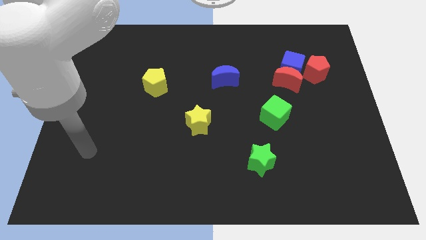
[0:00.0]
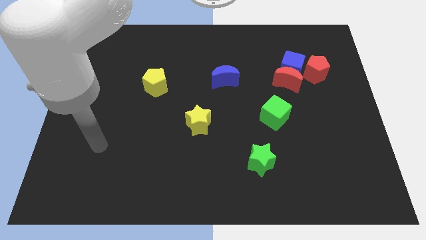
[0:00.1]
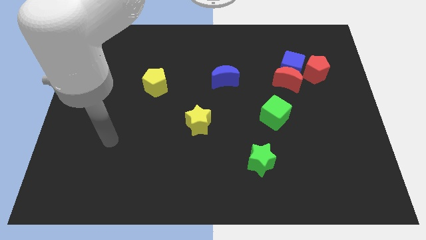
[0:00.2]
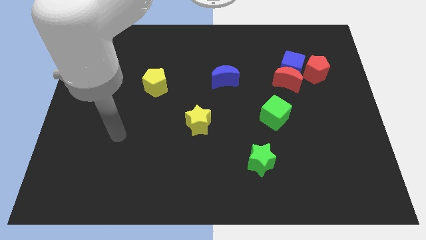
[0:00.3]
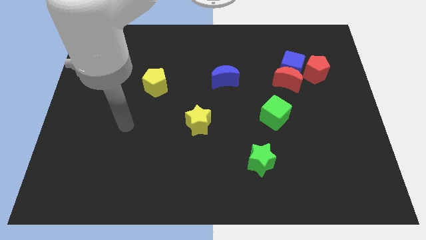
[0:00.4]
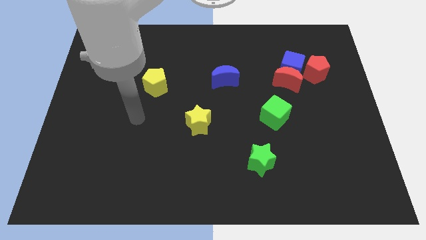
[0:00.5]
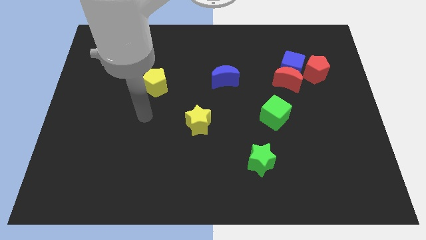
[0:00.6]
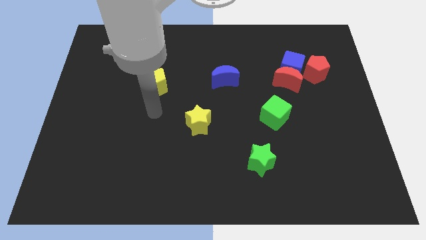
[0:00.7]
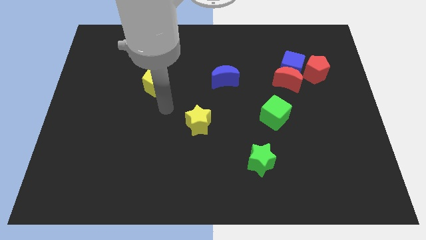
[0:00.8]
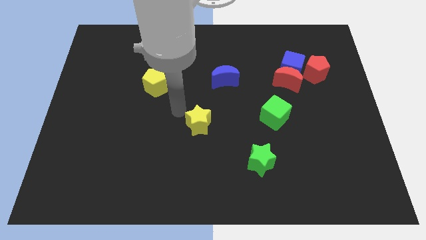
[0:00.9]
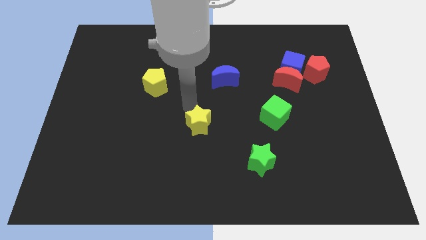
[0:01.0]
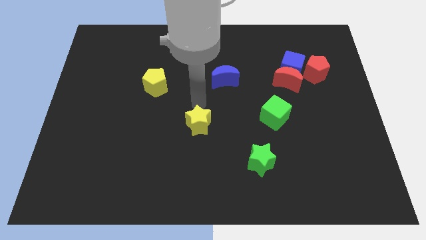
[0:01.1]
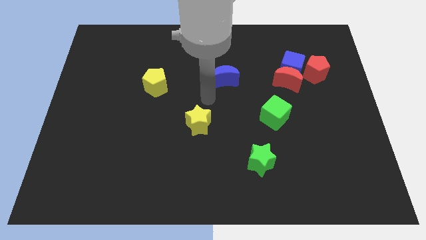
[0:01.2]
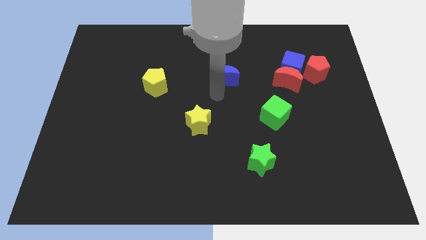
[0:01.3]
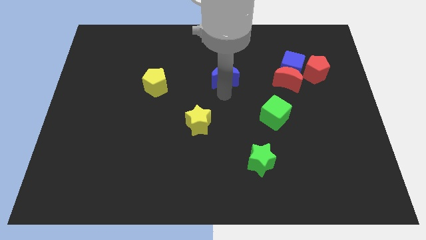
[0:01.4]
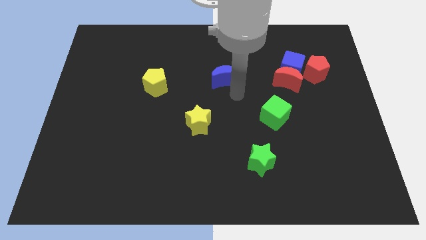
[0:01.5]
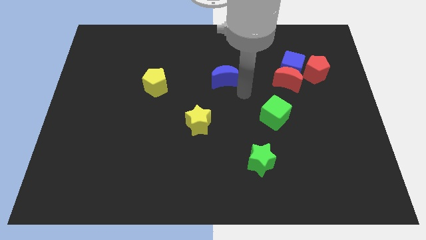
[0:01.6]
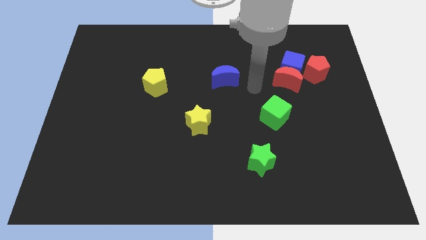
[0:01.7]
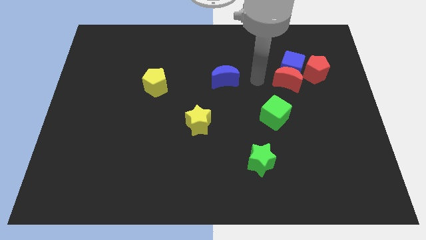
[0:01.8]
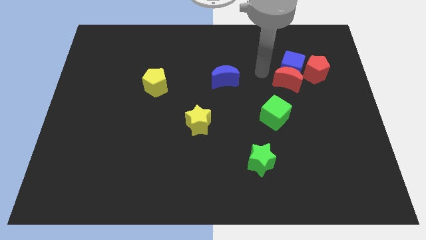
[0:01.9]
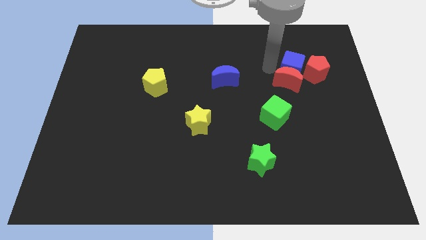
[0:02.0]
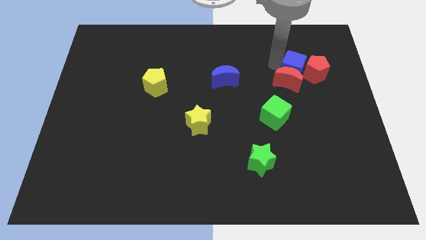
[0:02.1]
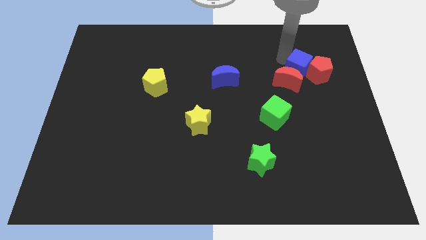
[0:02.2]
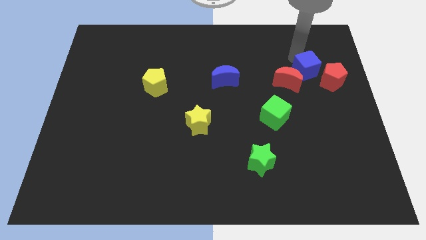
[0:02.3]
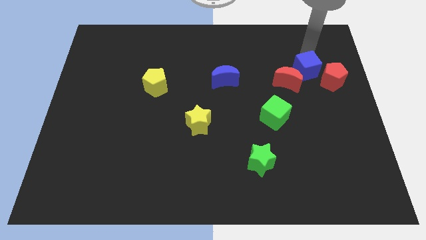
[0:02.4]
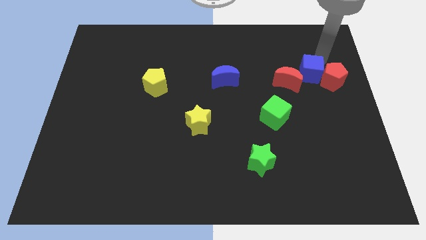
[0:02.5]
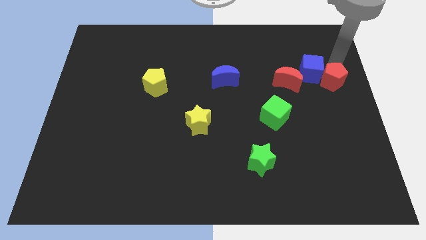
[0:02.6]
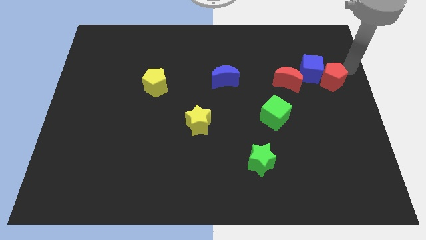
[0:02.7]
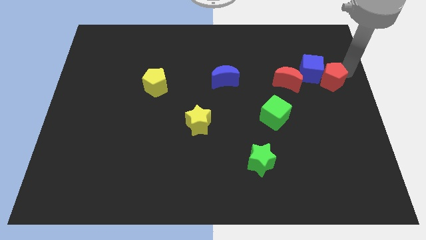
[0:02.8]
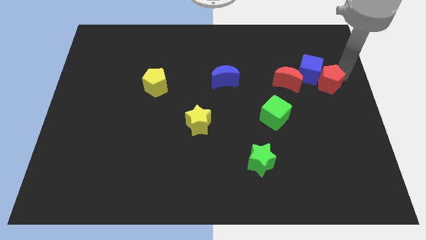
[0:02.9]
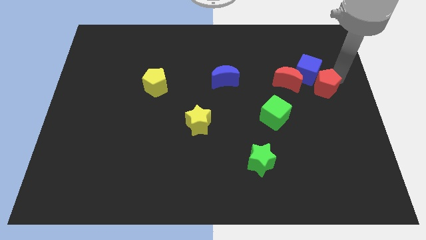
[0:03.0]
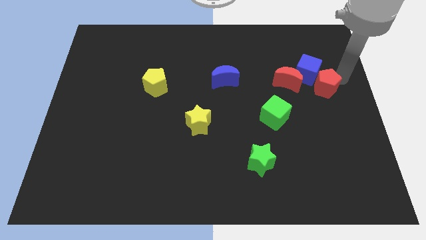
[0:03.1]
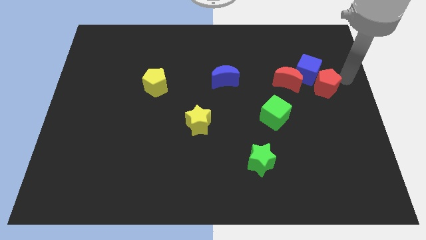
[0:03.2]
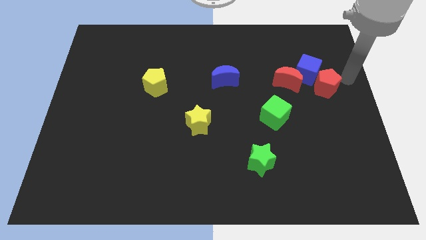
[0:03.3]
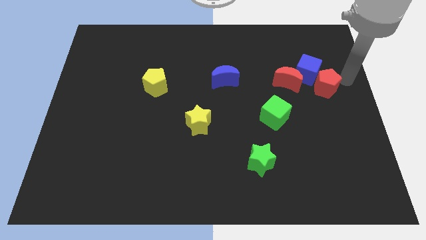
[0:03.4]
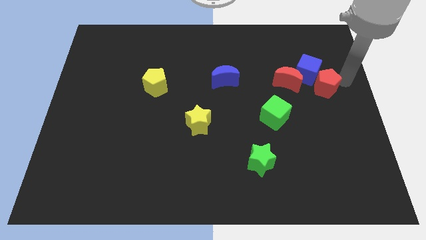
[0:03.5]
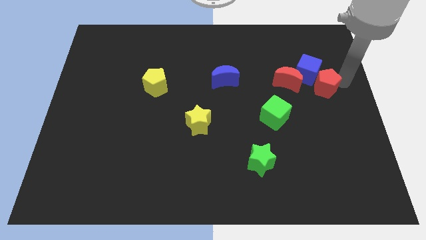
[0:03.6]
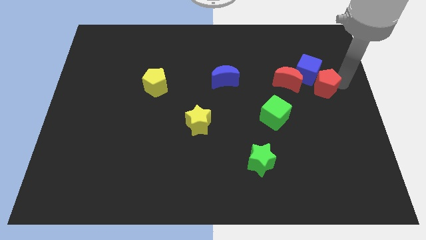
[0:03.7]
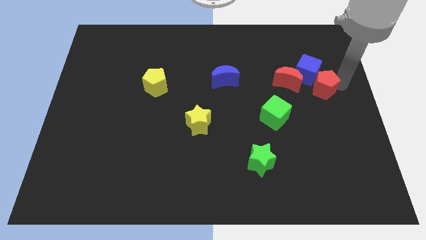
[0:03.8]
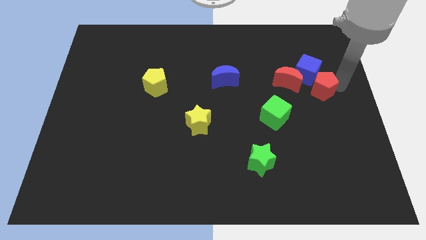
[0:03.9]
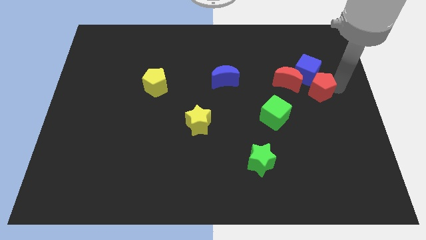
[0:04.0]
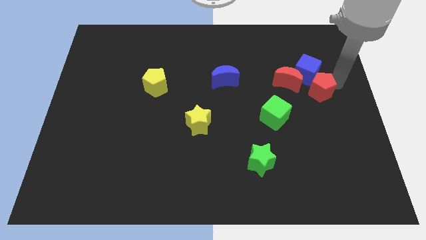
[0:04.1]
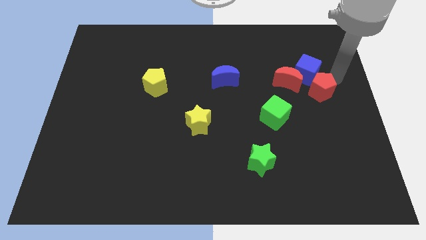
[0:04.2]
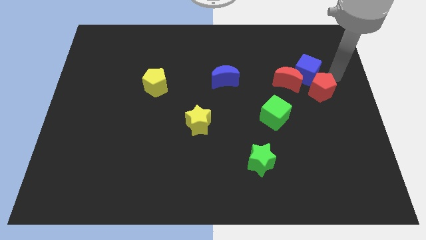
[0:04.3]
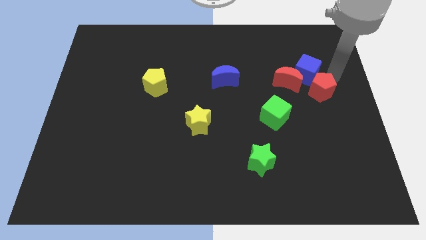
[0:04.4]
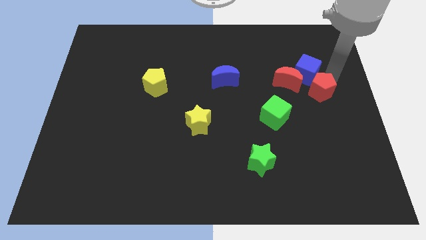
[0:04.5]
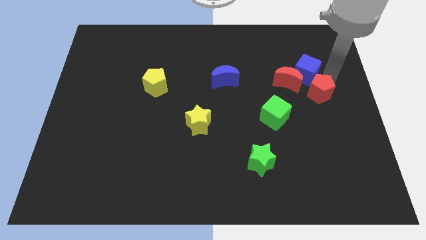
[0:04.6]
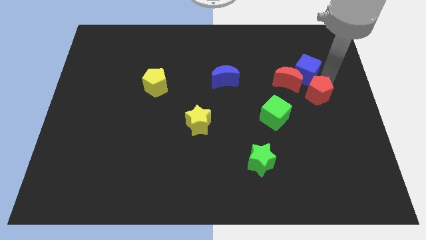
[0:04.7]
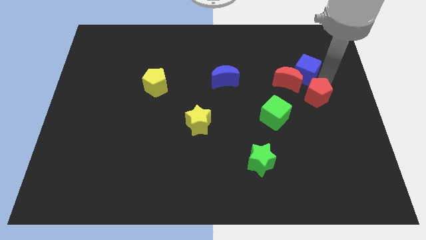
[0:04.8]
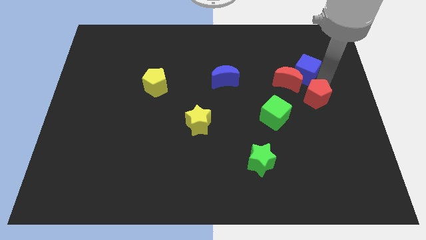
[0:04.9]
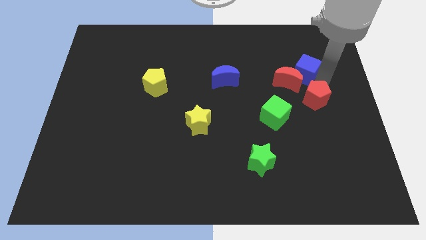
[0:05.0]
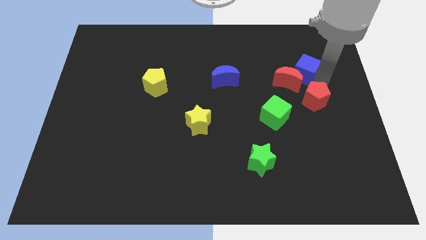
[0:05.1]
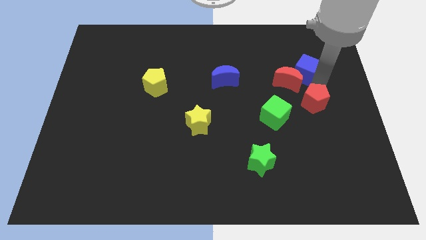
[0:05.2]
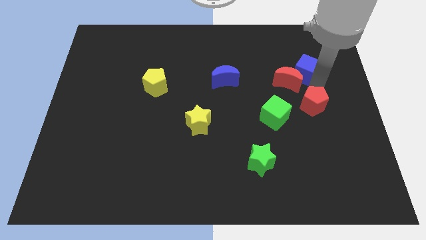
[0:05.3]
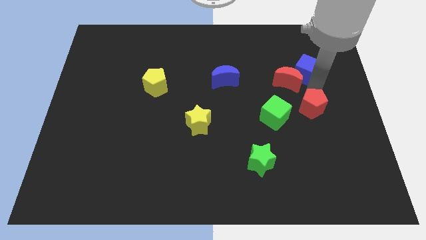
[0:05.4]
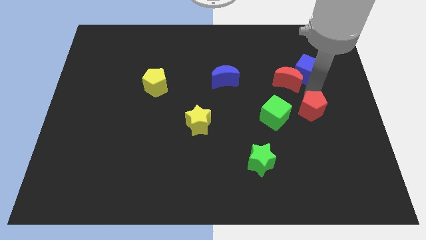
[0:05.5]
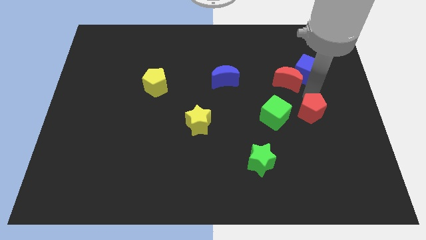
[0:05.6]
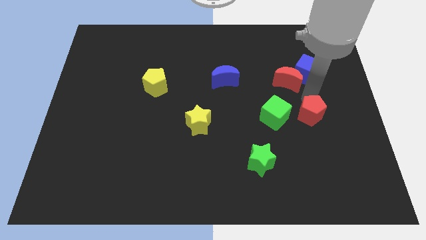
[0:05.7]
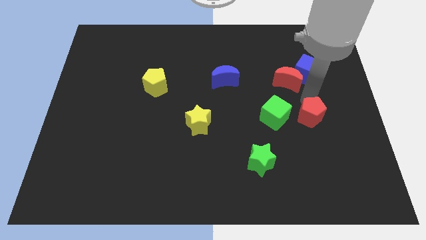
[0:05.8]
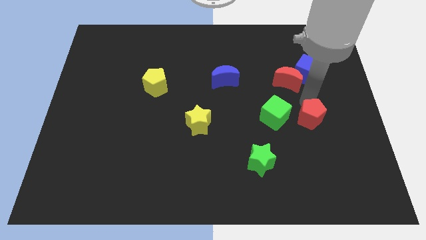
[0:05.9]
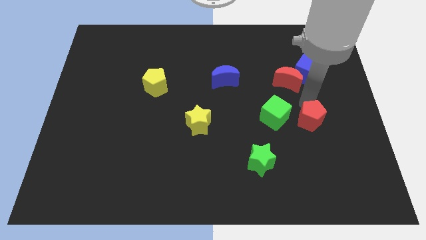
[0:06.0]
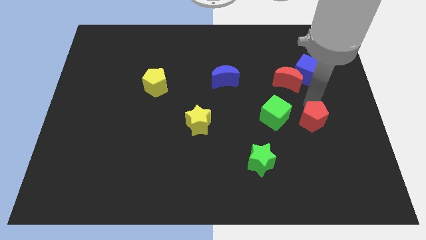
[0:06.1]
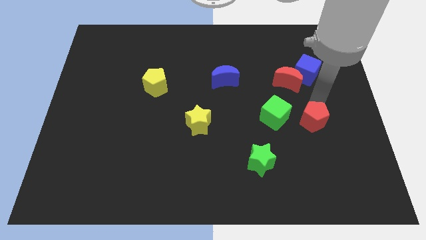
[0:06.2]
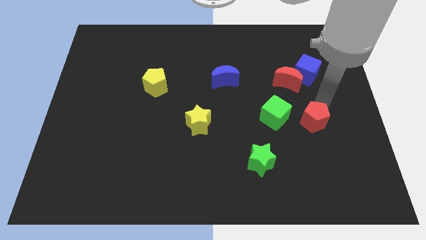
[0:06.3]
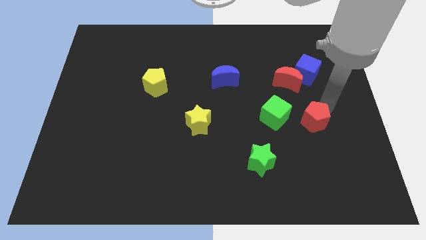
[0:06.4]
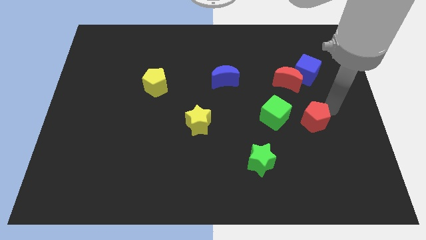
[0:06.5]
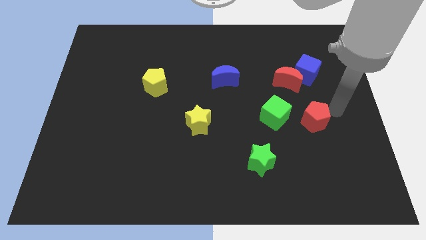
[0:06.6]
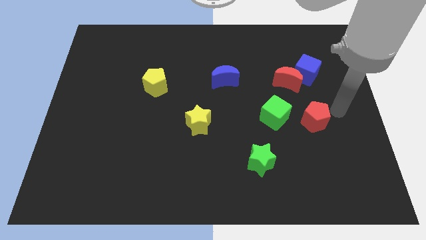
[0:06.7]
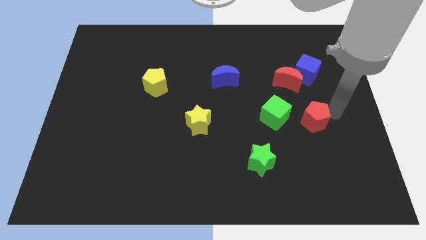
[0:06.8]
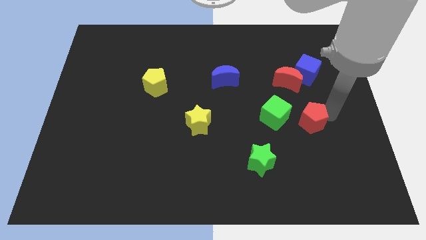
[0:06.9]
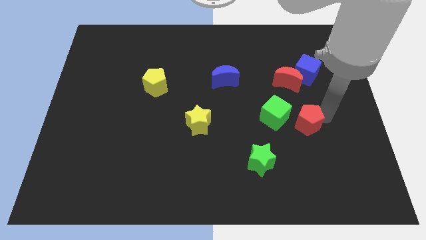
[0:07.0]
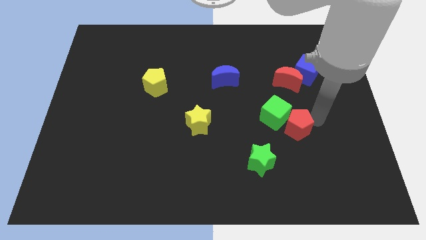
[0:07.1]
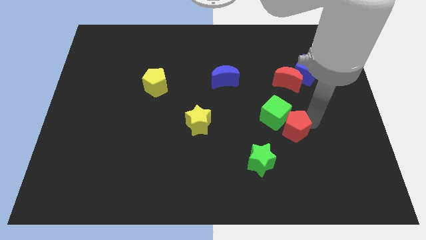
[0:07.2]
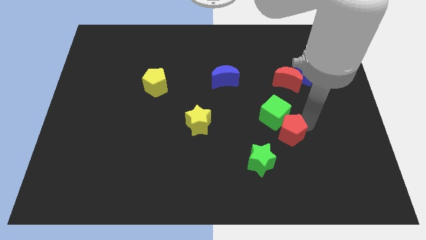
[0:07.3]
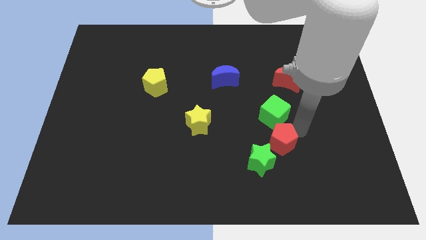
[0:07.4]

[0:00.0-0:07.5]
slide the red pentagon diagonally down and to the left

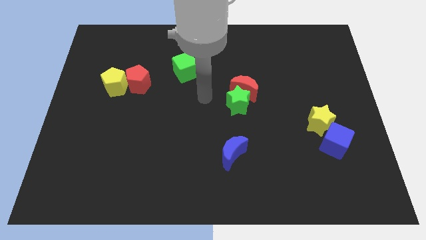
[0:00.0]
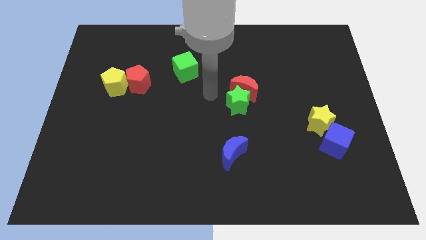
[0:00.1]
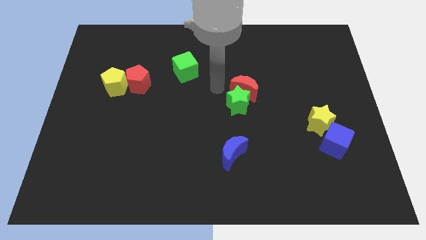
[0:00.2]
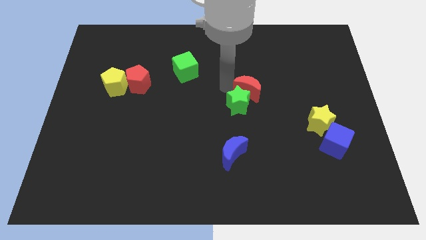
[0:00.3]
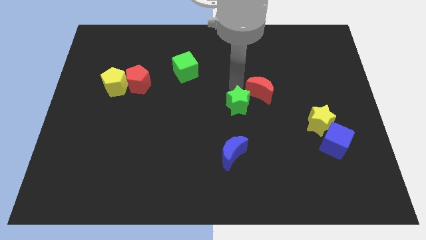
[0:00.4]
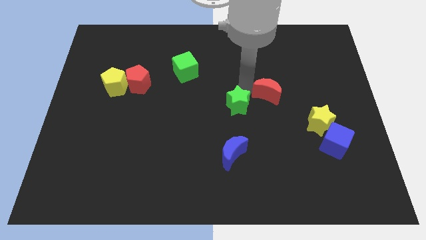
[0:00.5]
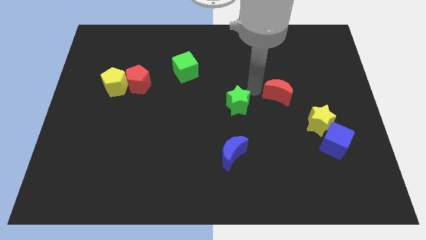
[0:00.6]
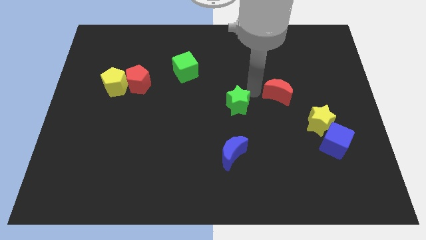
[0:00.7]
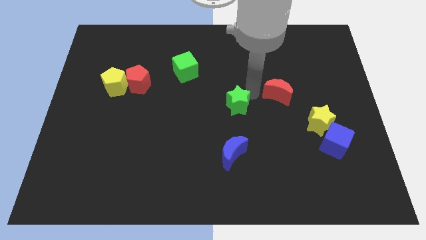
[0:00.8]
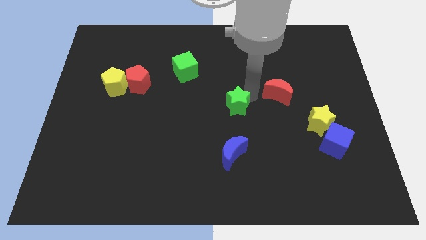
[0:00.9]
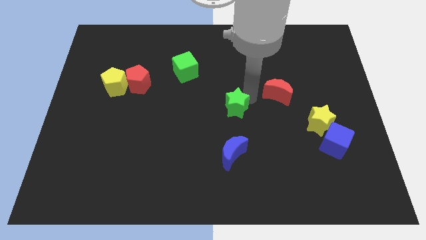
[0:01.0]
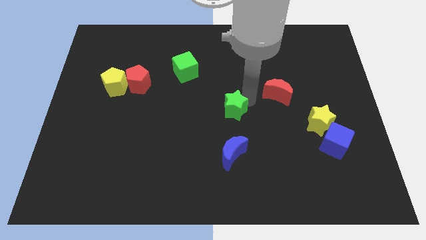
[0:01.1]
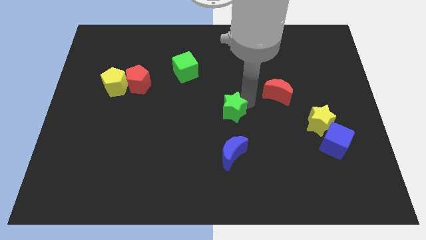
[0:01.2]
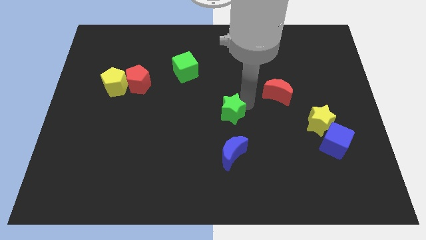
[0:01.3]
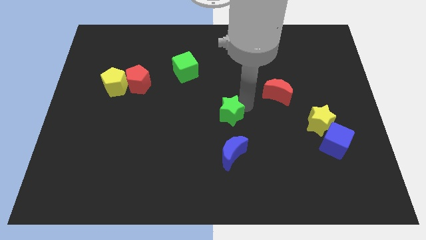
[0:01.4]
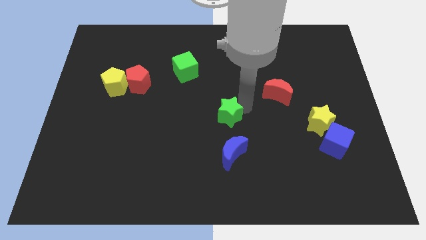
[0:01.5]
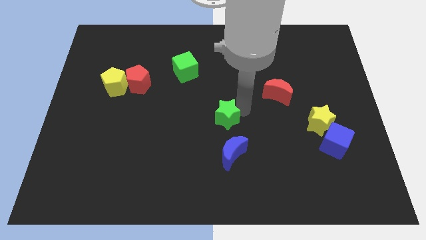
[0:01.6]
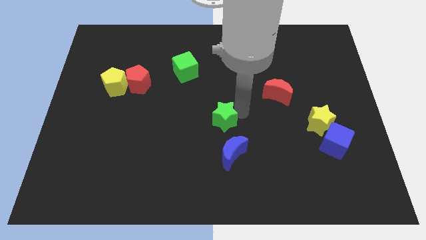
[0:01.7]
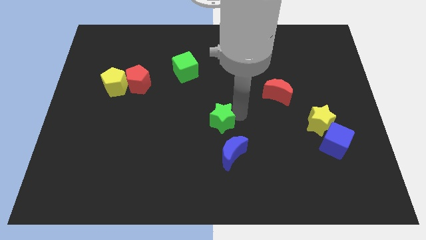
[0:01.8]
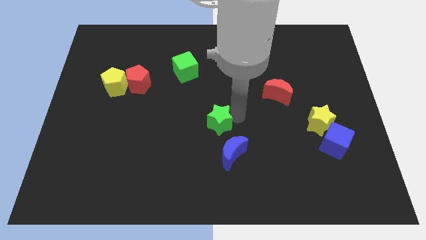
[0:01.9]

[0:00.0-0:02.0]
slightly slide the green star downwards and to the left
